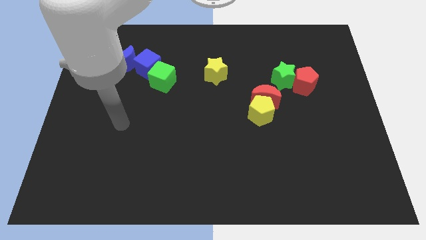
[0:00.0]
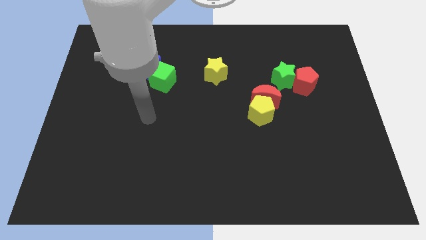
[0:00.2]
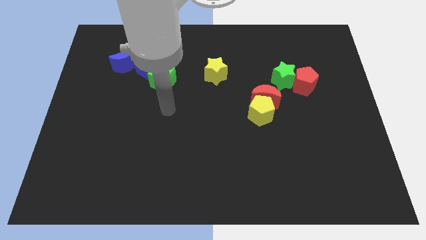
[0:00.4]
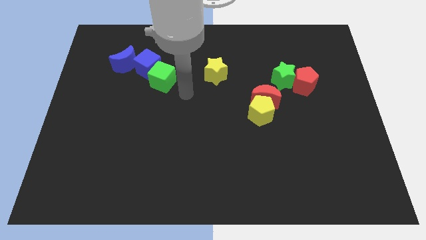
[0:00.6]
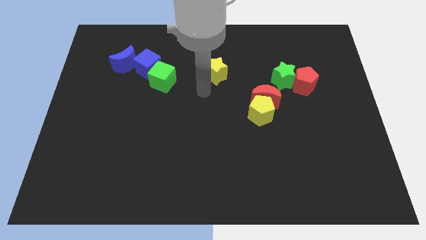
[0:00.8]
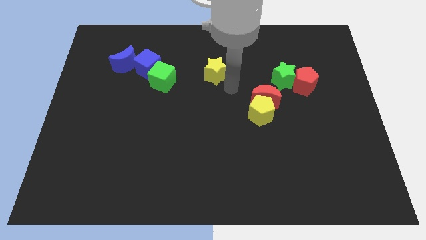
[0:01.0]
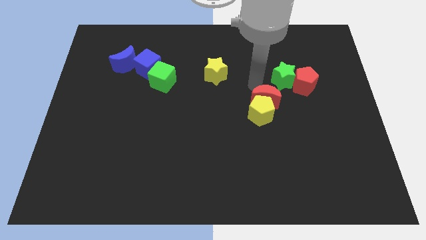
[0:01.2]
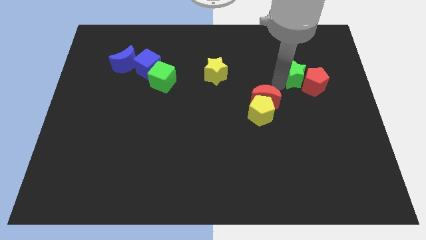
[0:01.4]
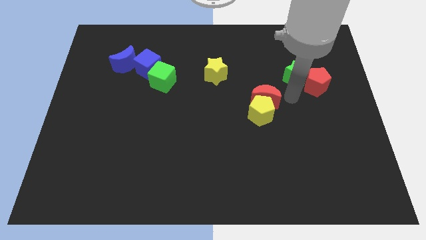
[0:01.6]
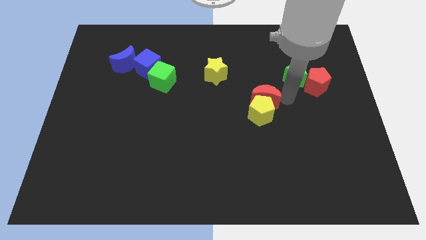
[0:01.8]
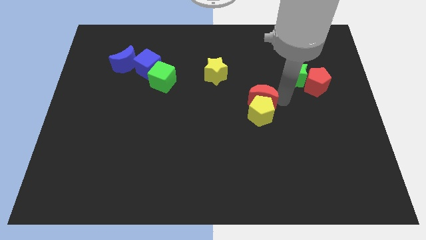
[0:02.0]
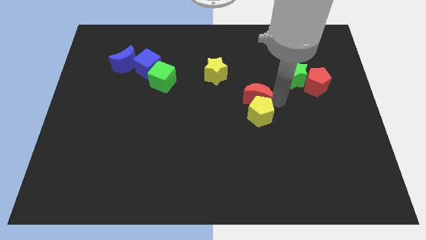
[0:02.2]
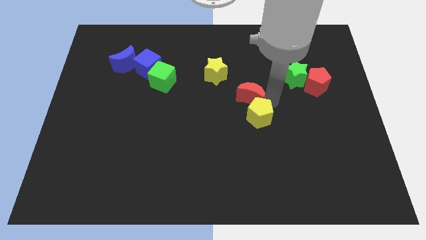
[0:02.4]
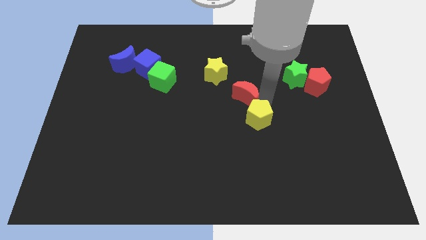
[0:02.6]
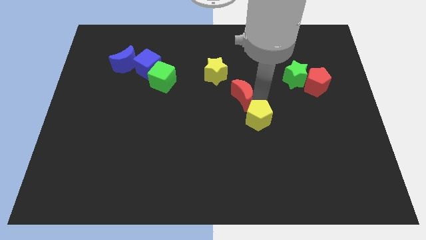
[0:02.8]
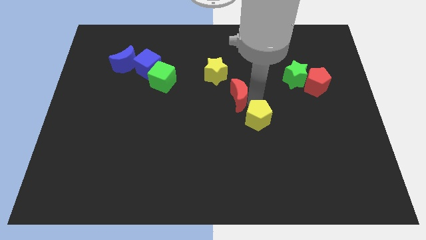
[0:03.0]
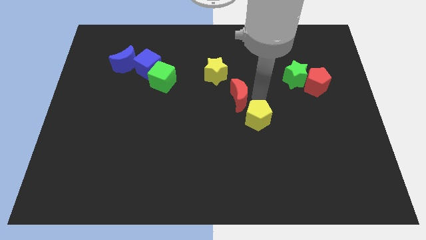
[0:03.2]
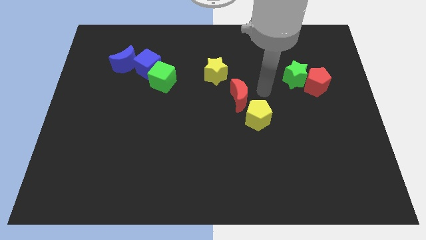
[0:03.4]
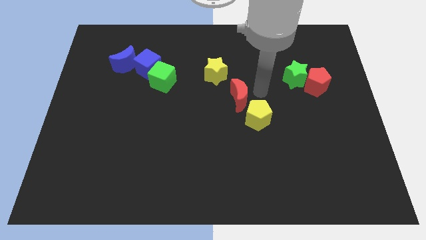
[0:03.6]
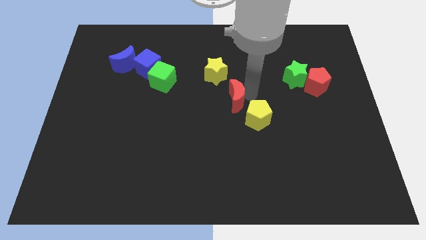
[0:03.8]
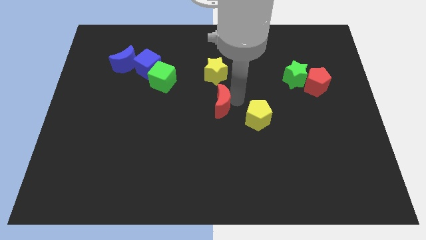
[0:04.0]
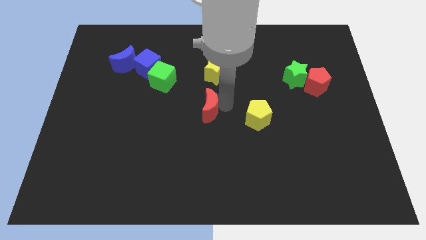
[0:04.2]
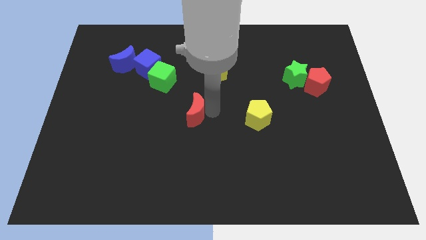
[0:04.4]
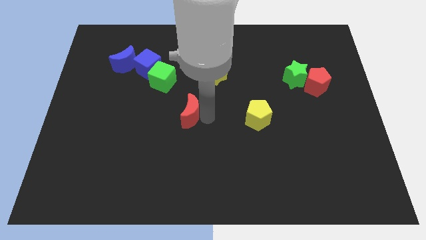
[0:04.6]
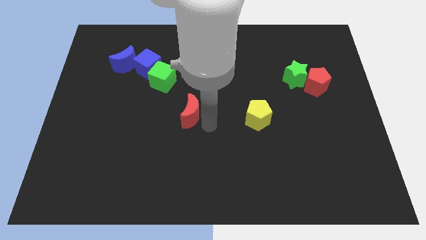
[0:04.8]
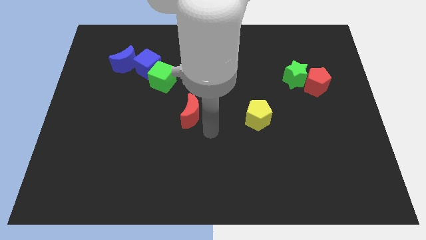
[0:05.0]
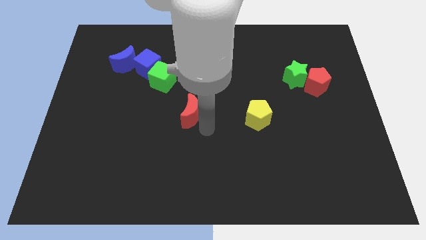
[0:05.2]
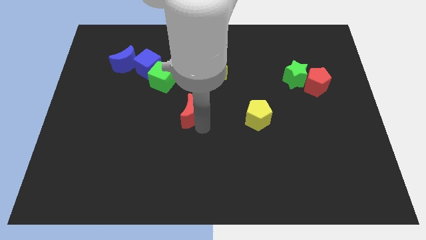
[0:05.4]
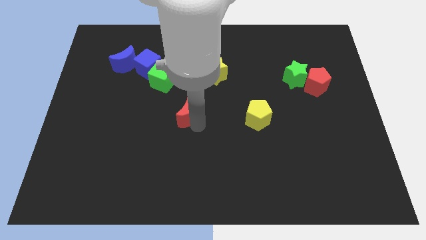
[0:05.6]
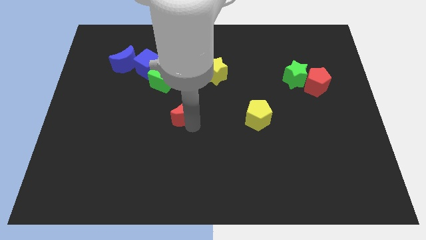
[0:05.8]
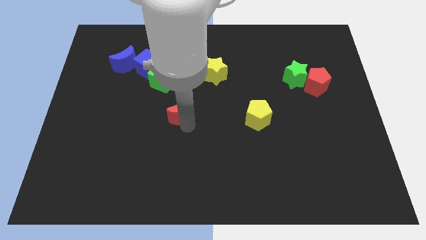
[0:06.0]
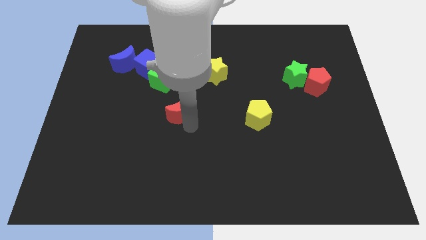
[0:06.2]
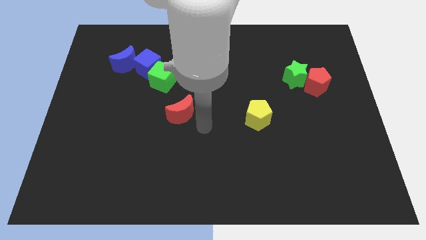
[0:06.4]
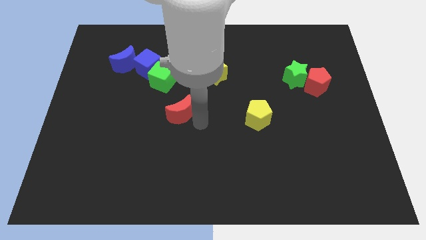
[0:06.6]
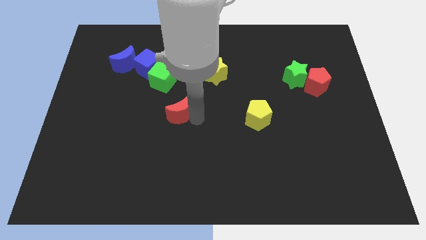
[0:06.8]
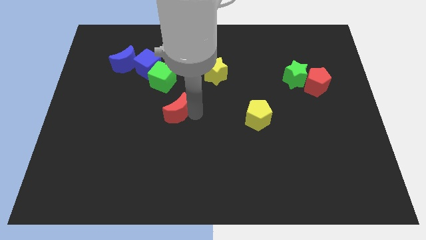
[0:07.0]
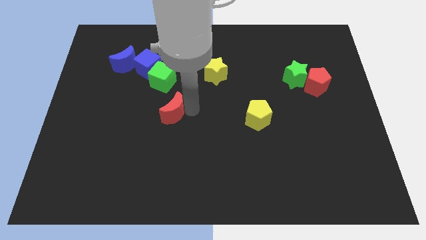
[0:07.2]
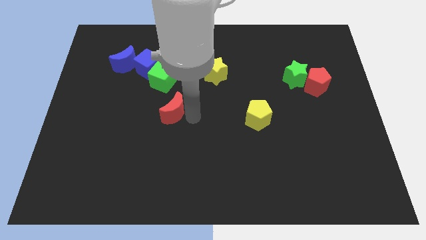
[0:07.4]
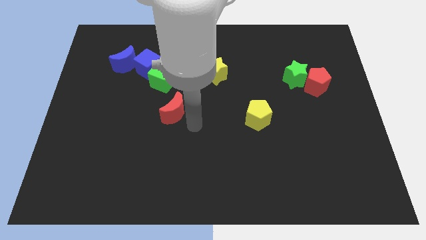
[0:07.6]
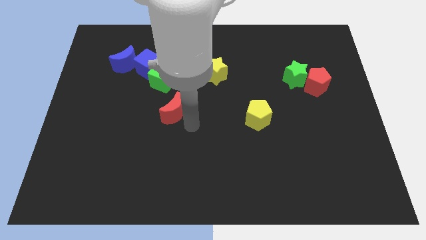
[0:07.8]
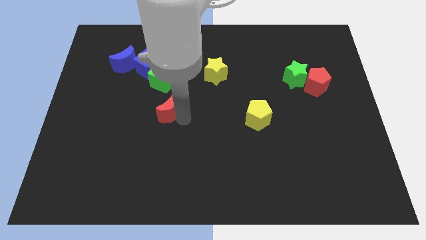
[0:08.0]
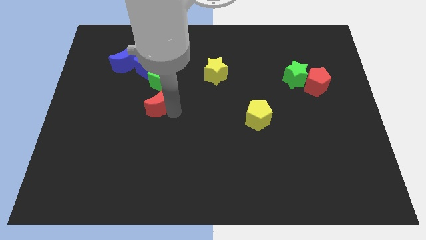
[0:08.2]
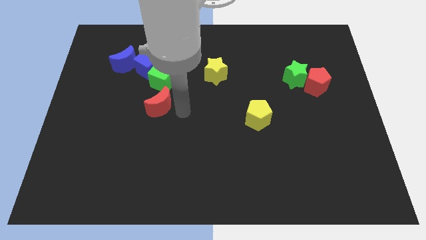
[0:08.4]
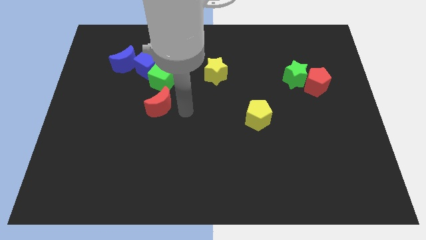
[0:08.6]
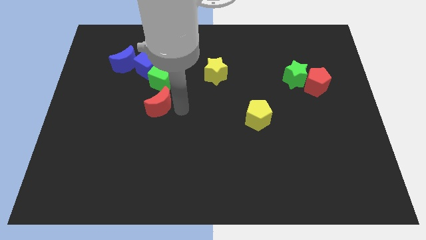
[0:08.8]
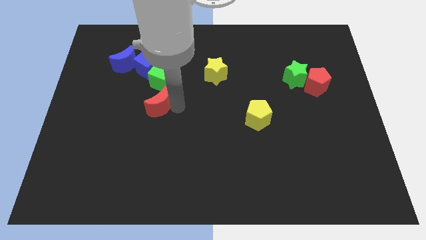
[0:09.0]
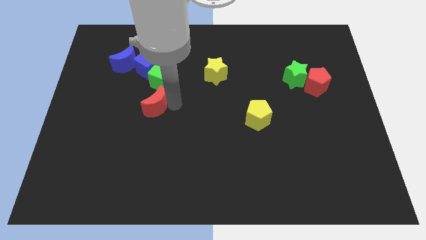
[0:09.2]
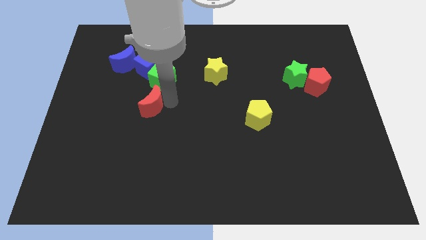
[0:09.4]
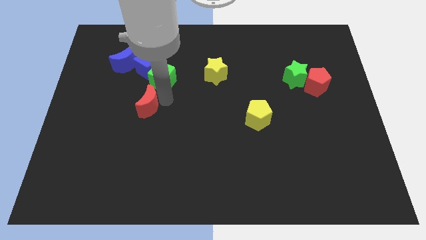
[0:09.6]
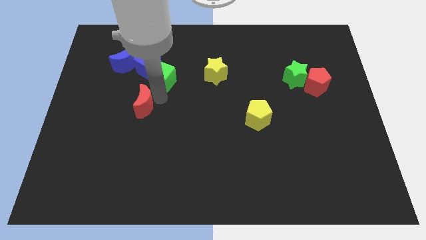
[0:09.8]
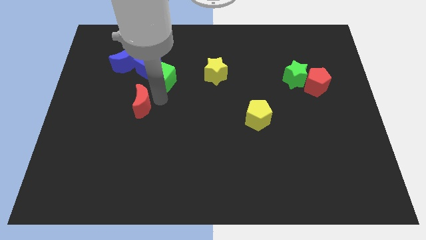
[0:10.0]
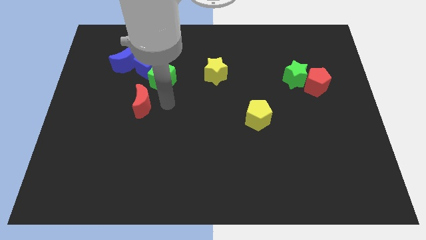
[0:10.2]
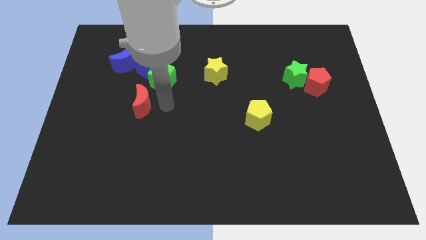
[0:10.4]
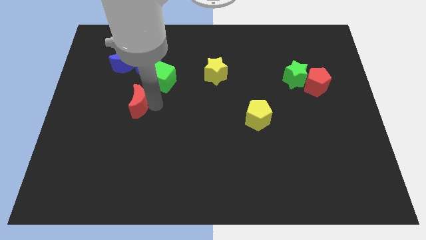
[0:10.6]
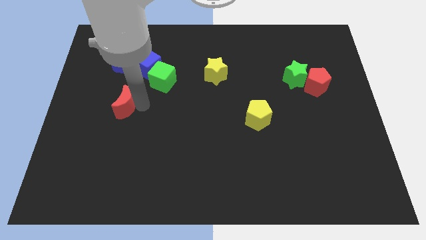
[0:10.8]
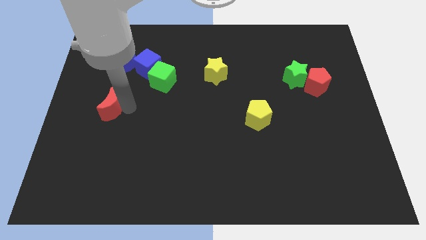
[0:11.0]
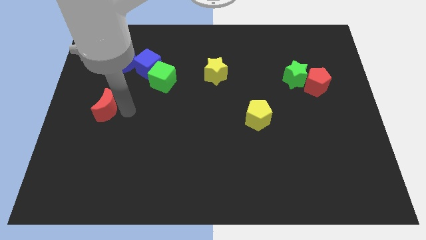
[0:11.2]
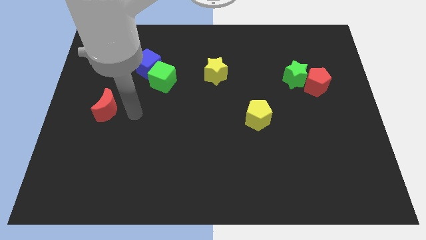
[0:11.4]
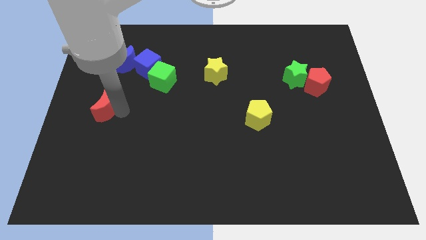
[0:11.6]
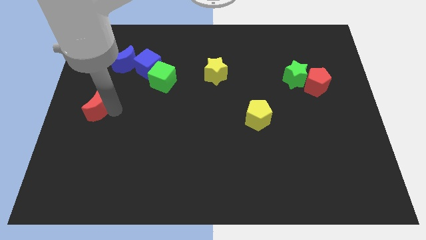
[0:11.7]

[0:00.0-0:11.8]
put the red moon to the left side
